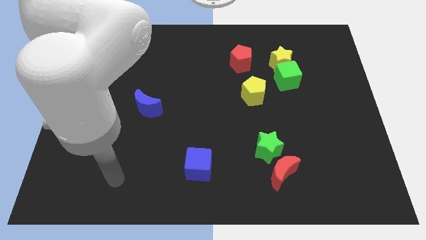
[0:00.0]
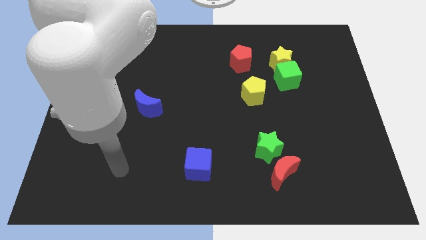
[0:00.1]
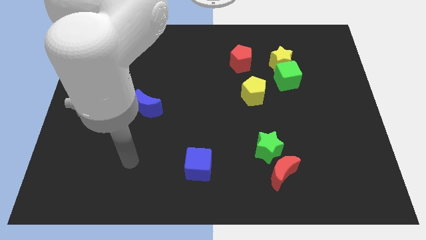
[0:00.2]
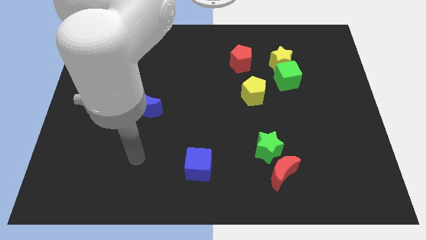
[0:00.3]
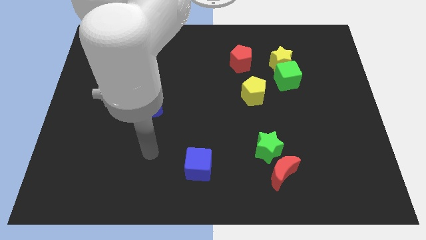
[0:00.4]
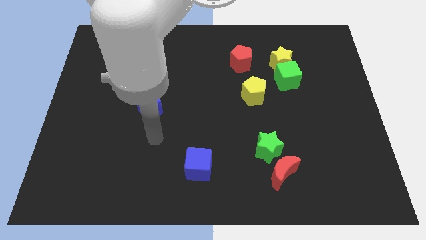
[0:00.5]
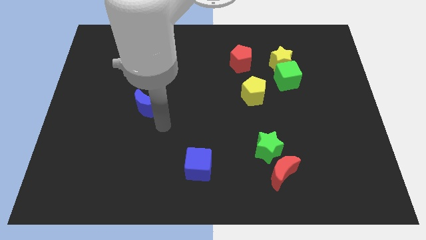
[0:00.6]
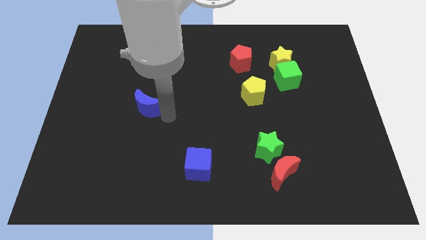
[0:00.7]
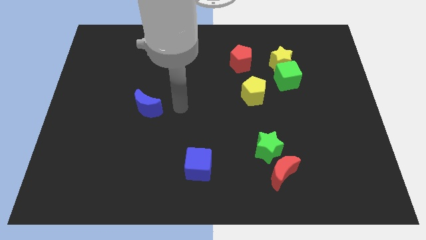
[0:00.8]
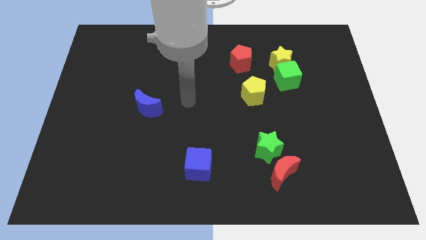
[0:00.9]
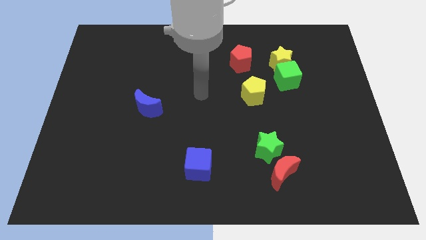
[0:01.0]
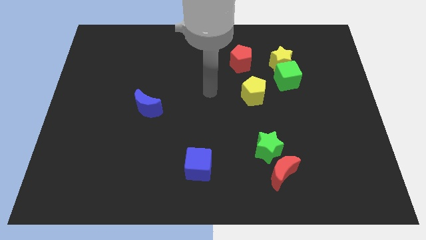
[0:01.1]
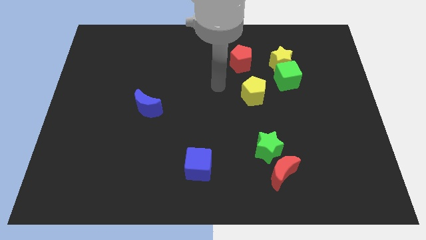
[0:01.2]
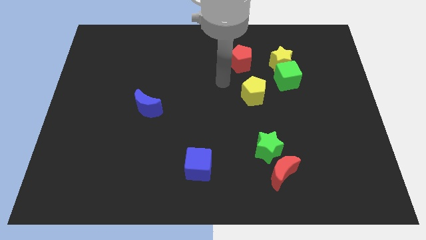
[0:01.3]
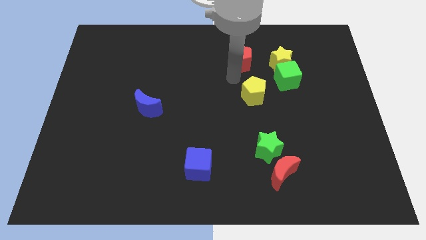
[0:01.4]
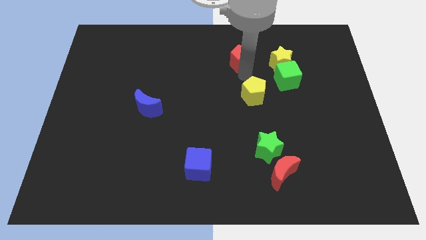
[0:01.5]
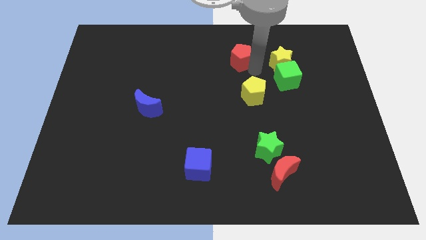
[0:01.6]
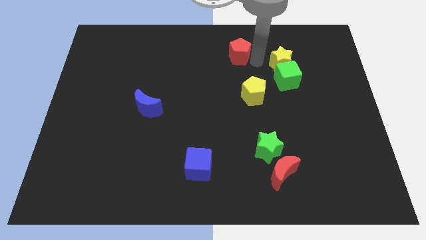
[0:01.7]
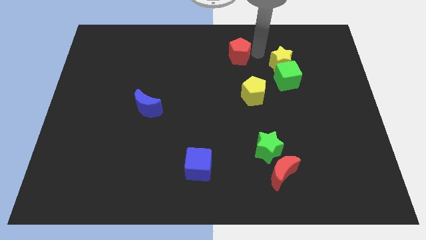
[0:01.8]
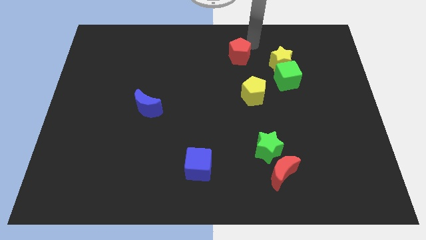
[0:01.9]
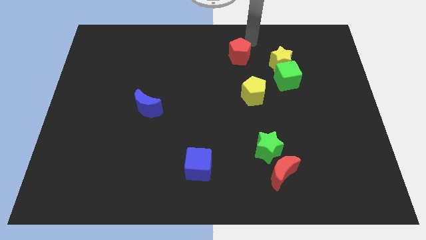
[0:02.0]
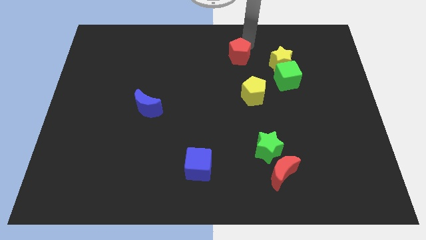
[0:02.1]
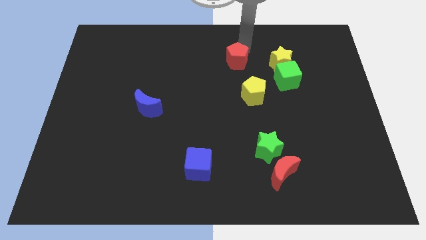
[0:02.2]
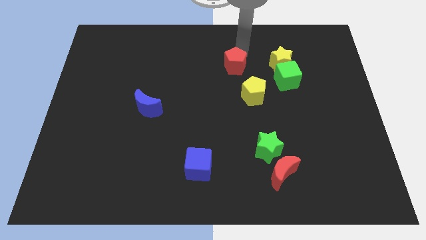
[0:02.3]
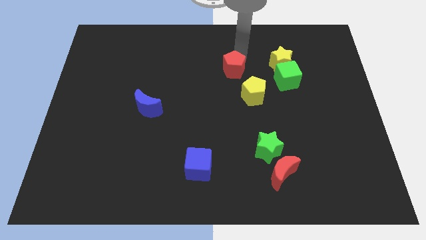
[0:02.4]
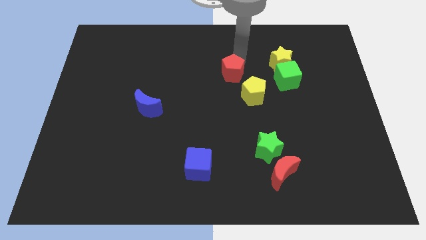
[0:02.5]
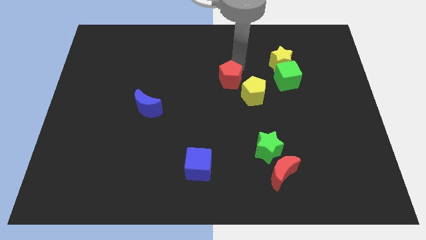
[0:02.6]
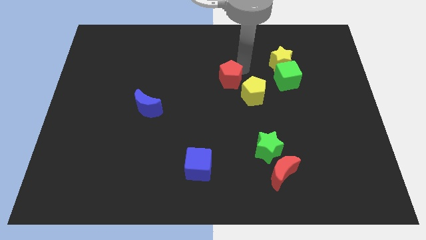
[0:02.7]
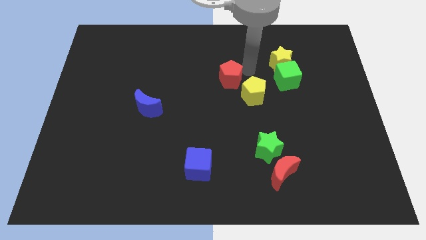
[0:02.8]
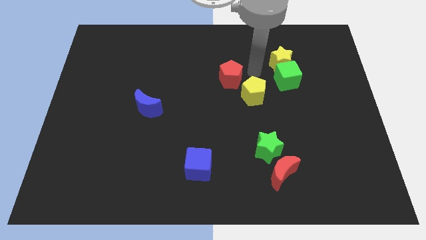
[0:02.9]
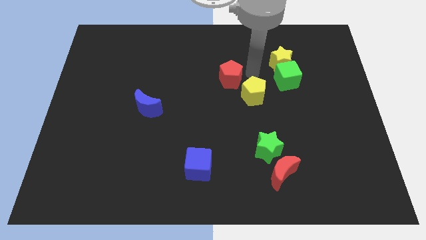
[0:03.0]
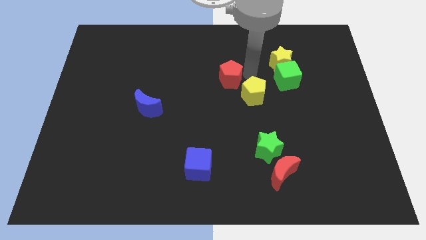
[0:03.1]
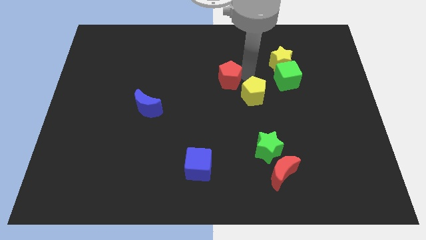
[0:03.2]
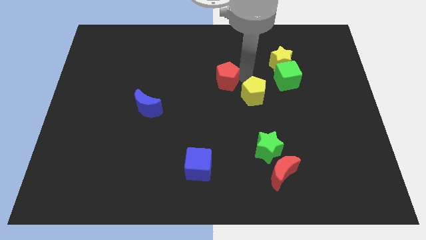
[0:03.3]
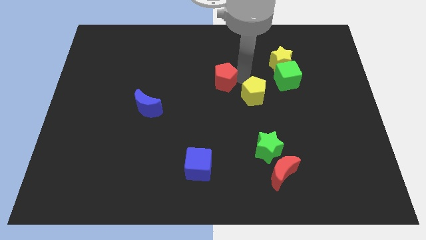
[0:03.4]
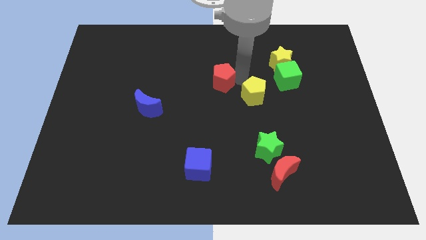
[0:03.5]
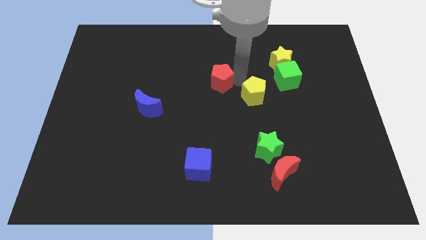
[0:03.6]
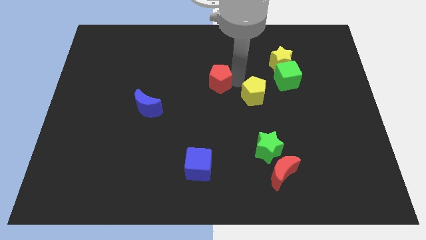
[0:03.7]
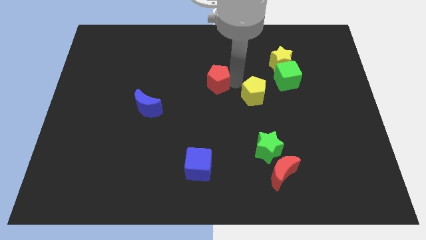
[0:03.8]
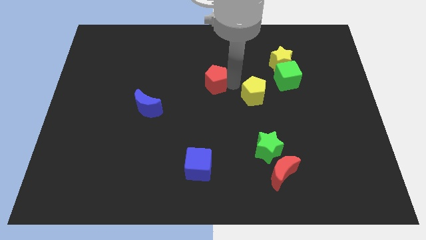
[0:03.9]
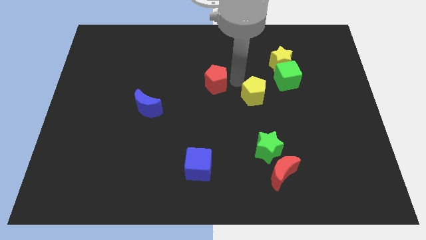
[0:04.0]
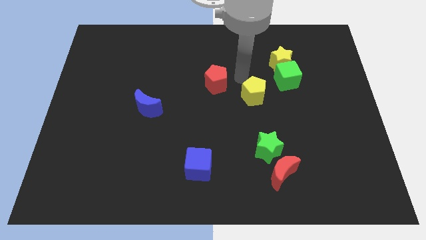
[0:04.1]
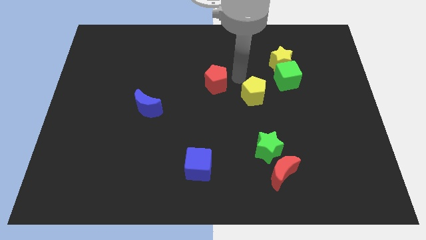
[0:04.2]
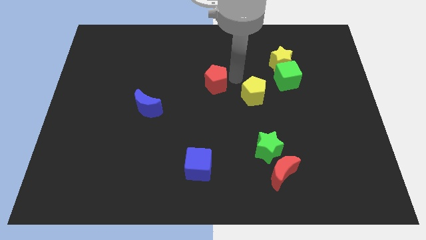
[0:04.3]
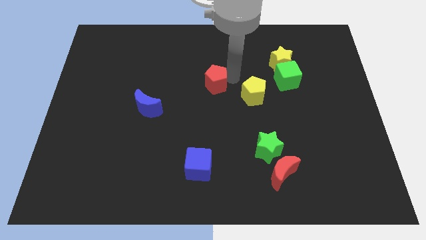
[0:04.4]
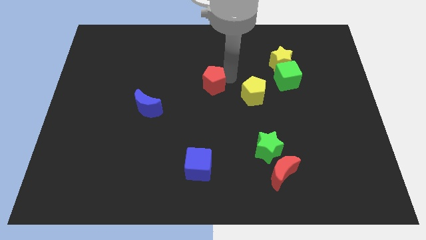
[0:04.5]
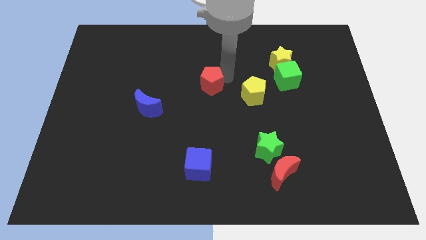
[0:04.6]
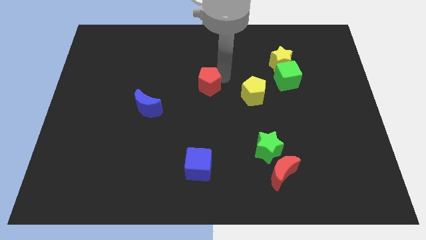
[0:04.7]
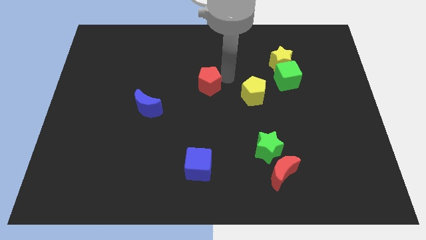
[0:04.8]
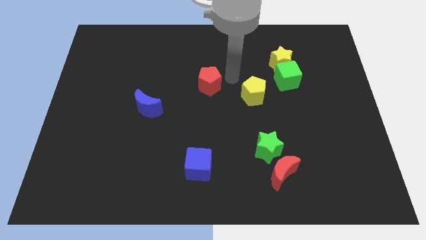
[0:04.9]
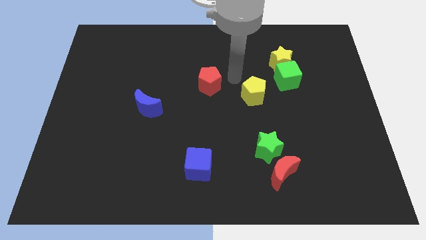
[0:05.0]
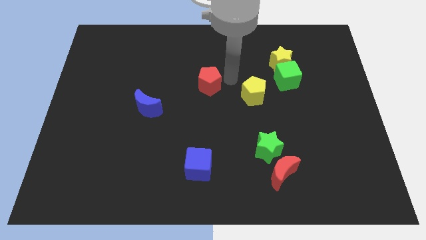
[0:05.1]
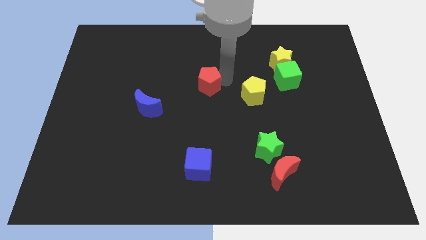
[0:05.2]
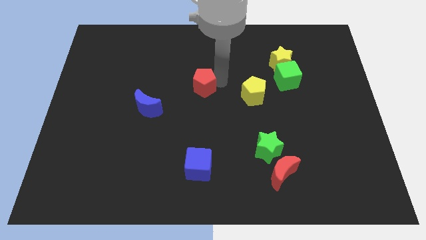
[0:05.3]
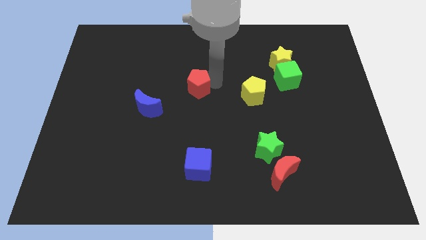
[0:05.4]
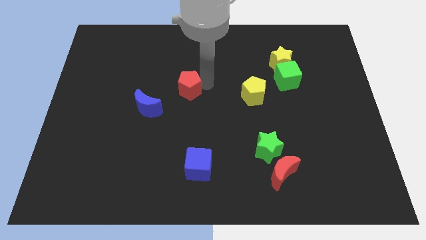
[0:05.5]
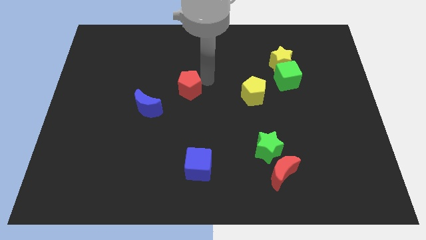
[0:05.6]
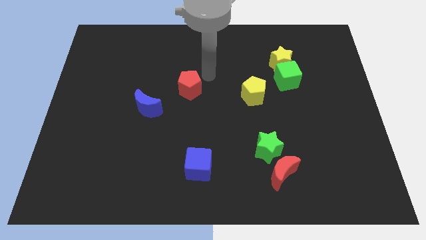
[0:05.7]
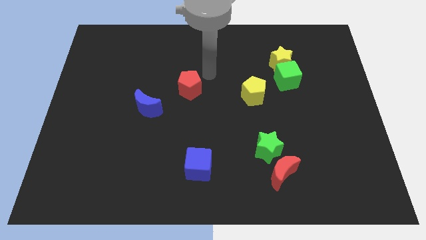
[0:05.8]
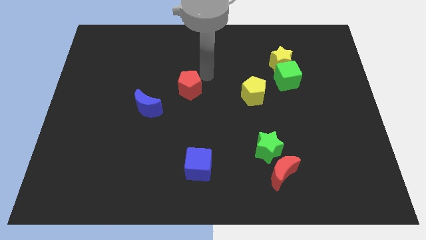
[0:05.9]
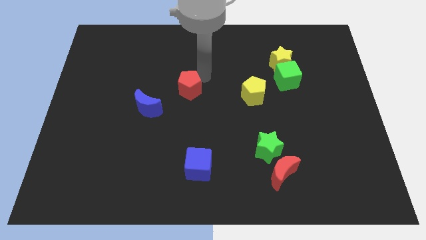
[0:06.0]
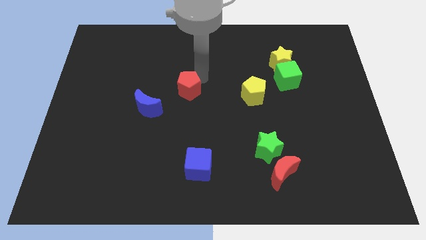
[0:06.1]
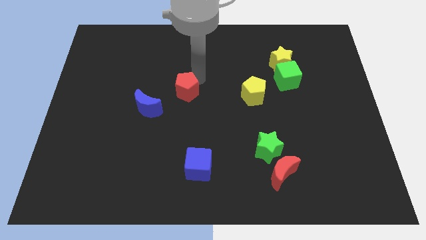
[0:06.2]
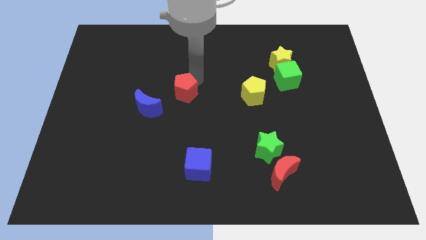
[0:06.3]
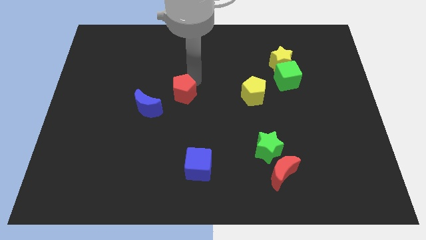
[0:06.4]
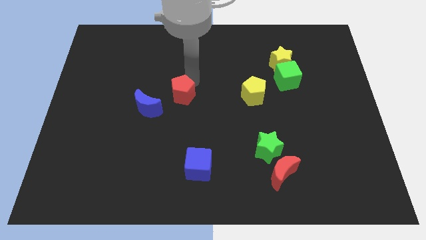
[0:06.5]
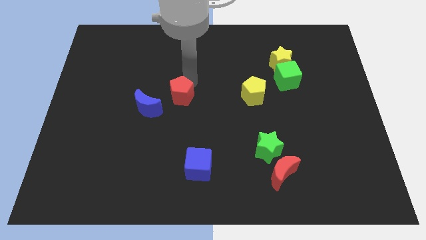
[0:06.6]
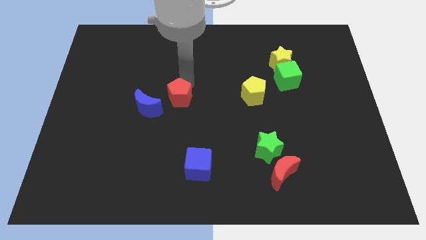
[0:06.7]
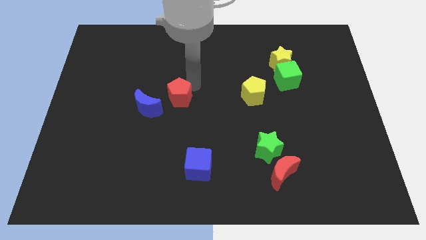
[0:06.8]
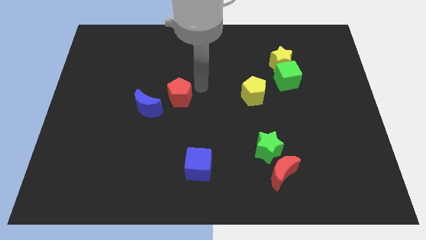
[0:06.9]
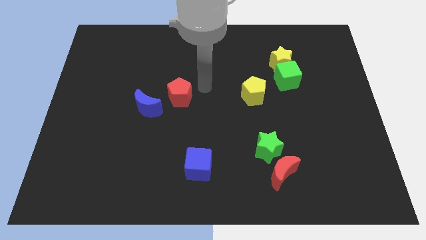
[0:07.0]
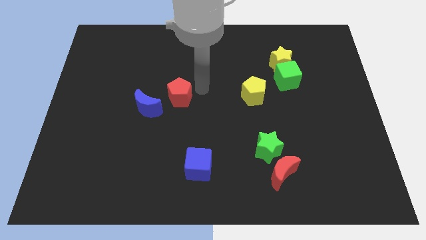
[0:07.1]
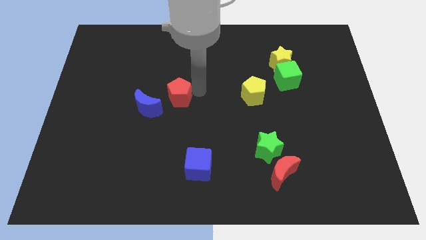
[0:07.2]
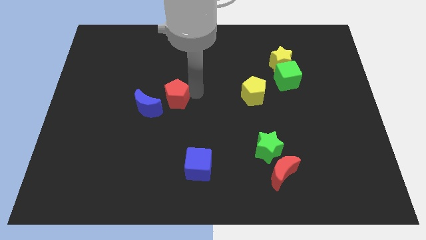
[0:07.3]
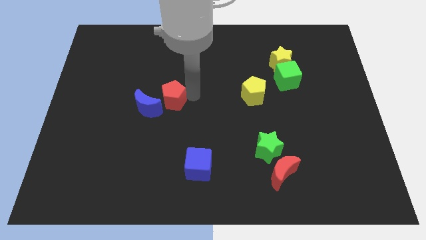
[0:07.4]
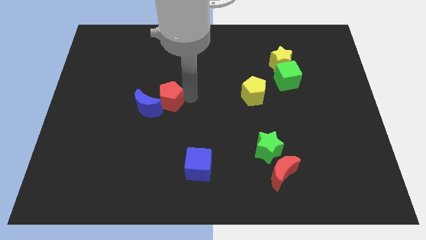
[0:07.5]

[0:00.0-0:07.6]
push the red pentagon close to the blue moon

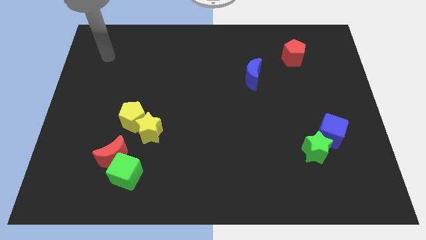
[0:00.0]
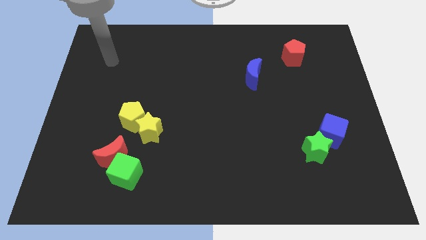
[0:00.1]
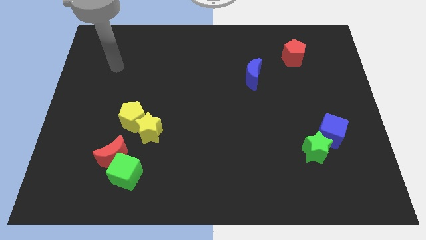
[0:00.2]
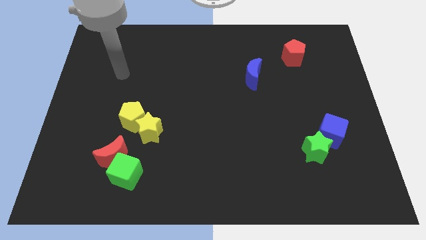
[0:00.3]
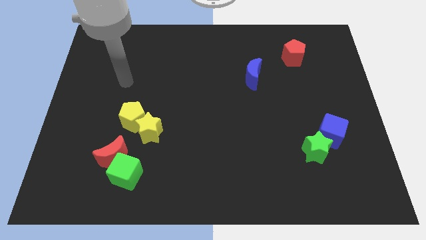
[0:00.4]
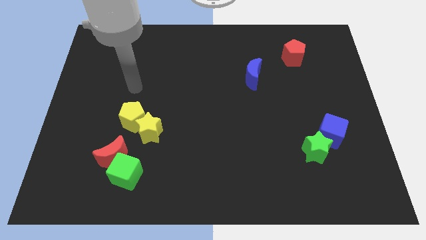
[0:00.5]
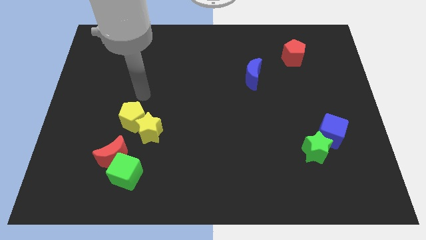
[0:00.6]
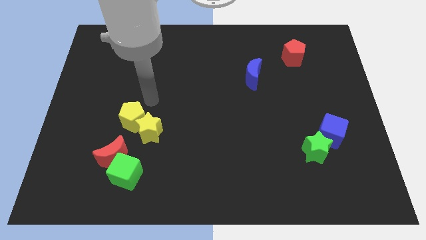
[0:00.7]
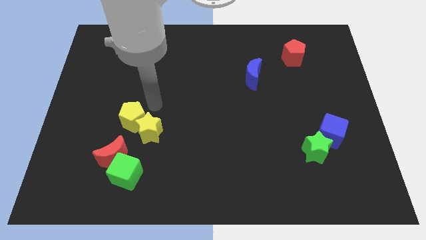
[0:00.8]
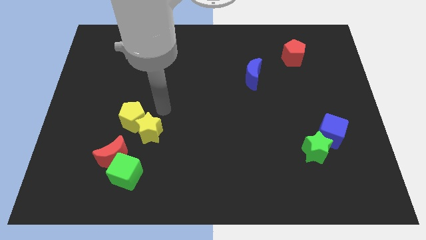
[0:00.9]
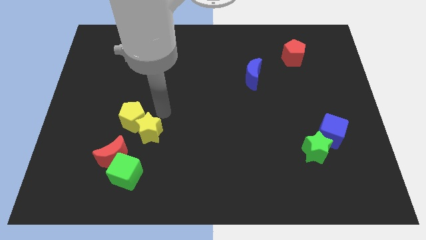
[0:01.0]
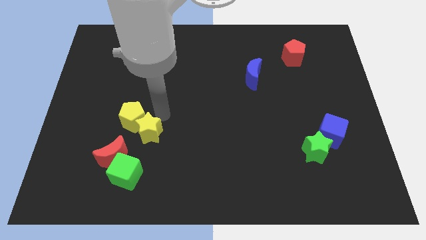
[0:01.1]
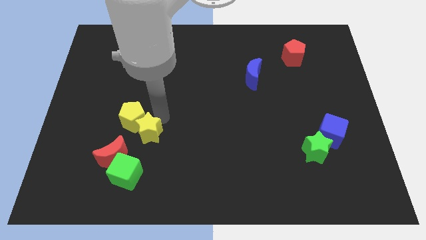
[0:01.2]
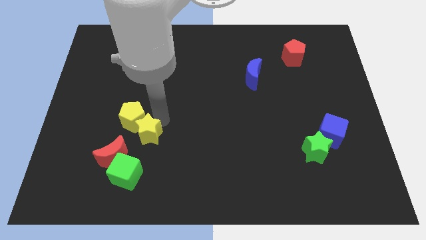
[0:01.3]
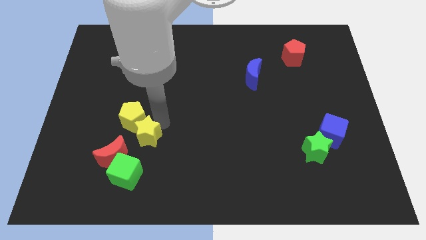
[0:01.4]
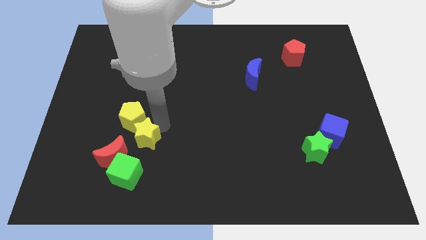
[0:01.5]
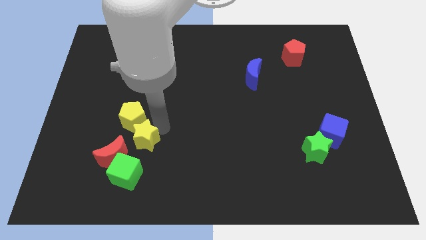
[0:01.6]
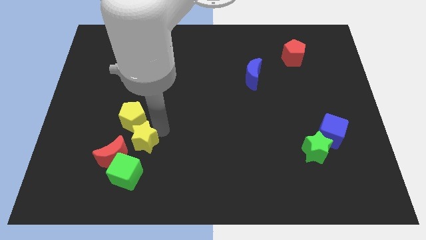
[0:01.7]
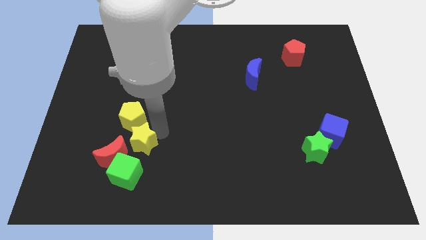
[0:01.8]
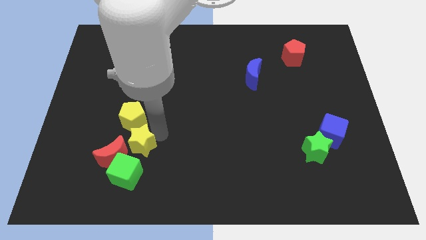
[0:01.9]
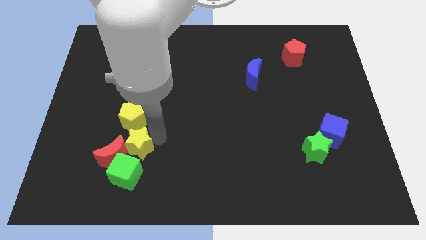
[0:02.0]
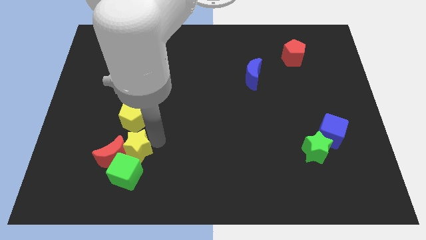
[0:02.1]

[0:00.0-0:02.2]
slide the yellow star close to the green cube
